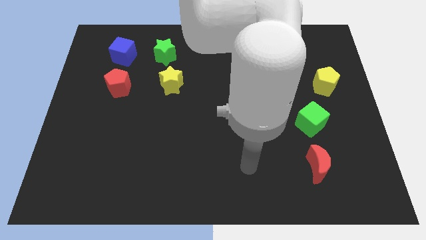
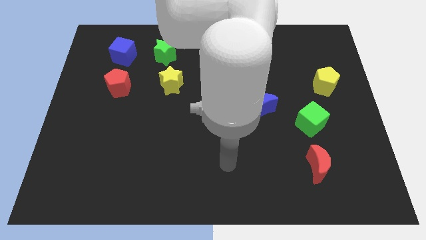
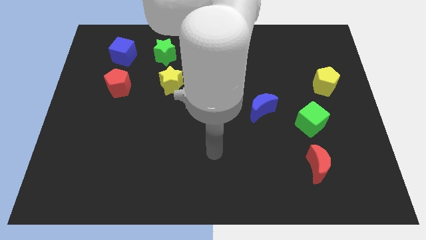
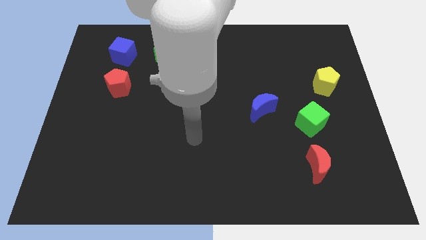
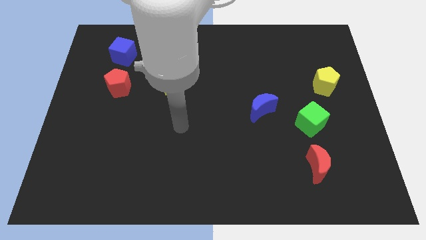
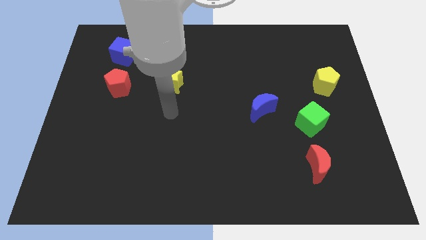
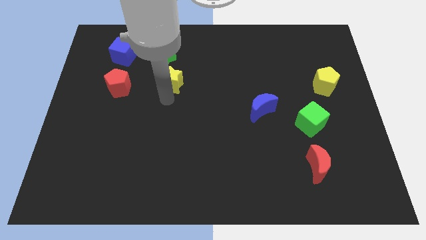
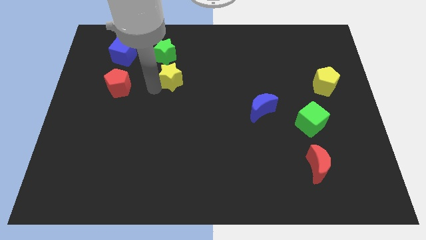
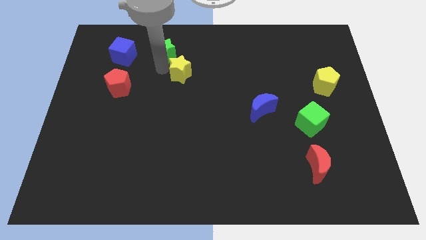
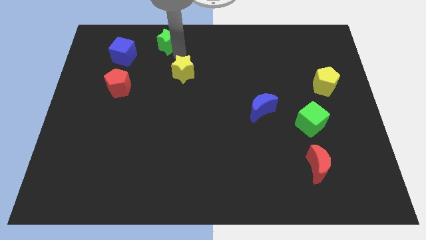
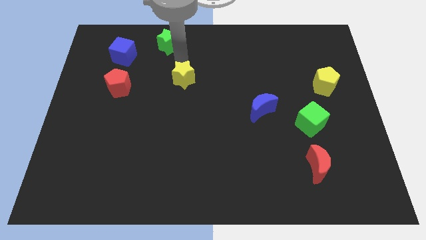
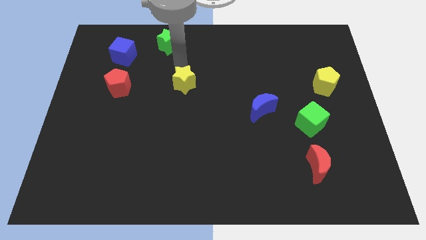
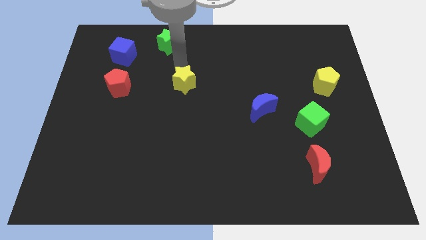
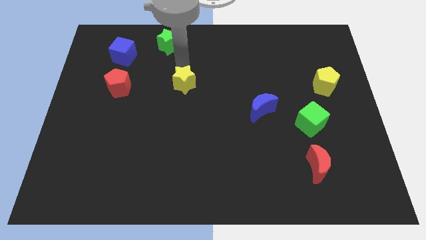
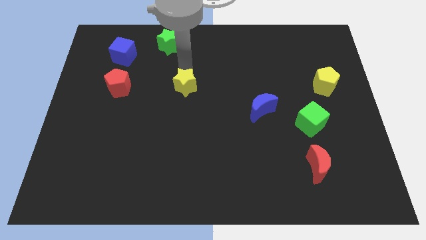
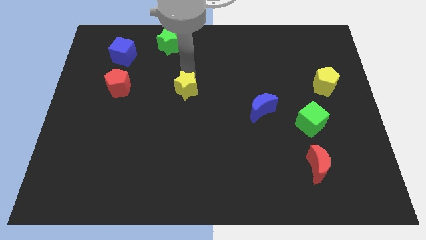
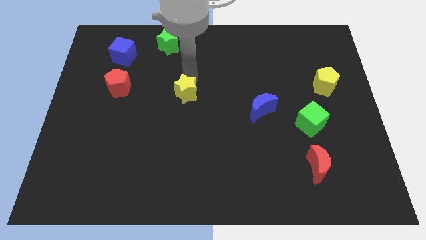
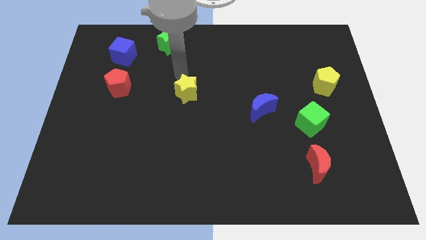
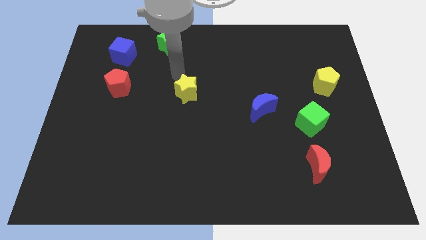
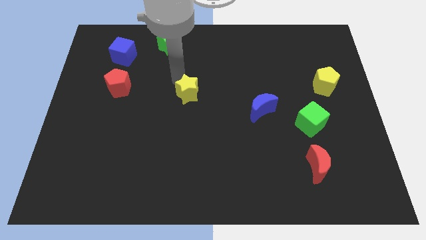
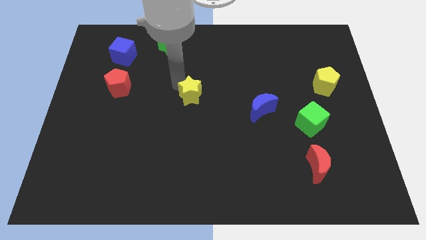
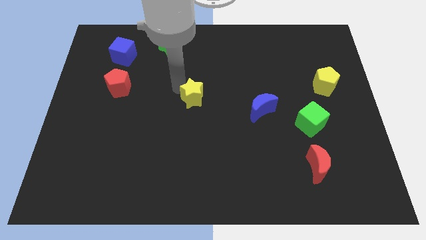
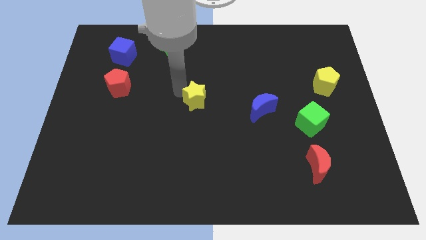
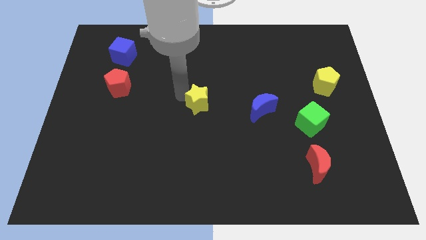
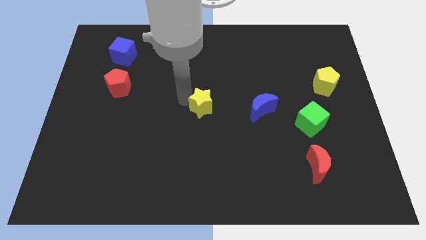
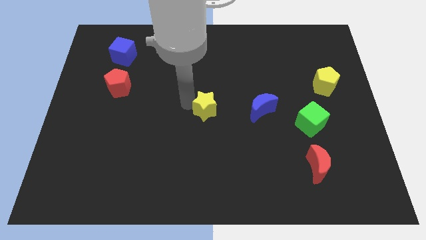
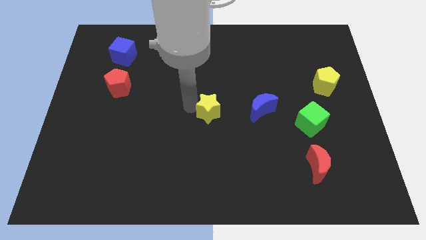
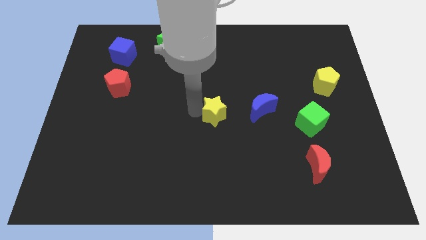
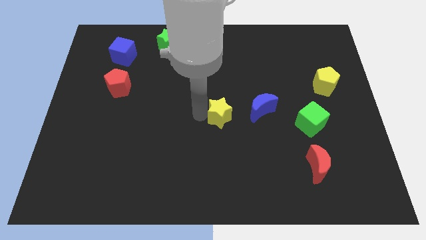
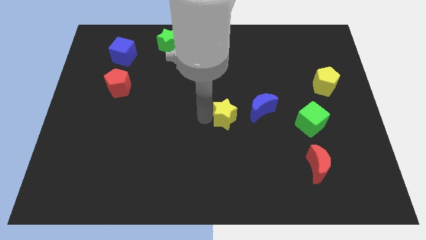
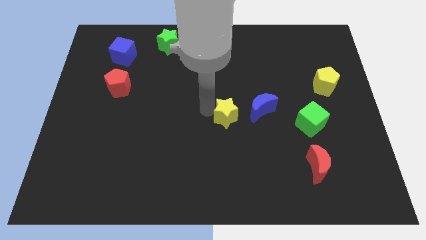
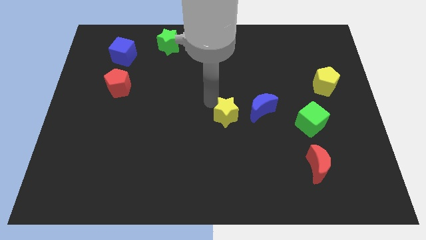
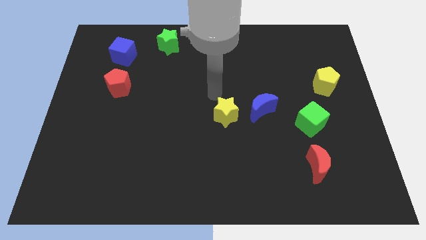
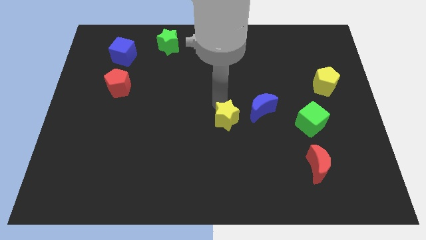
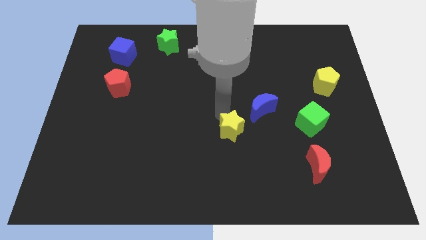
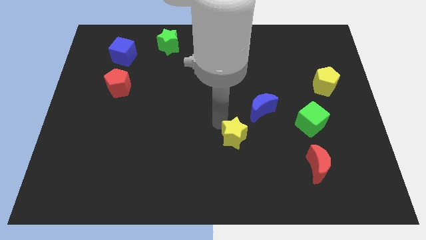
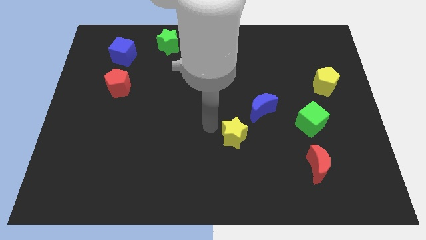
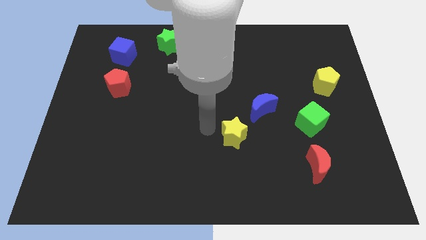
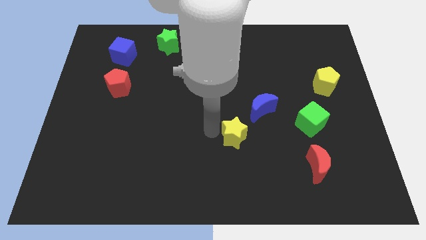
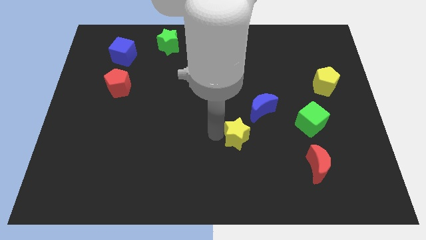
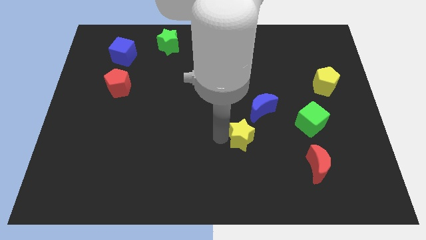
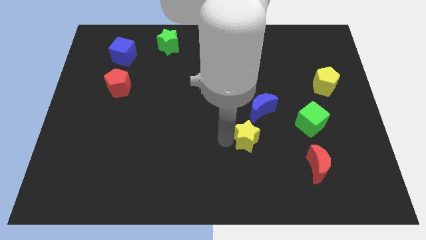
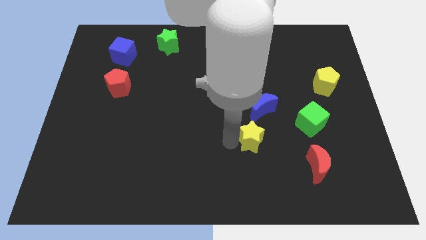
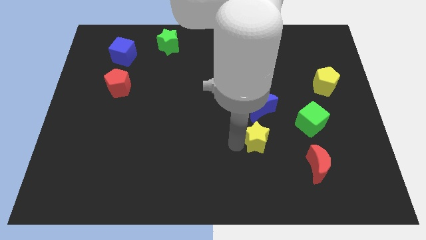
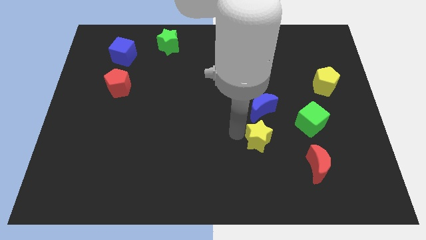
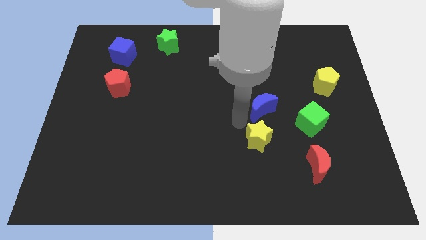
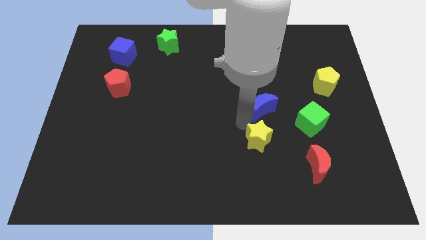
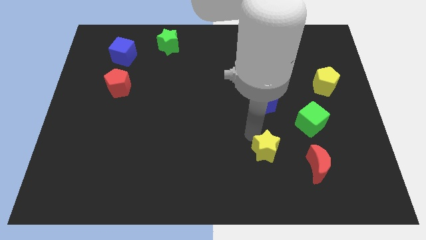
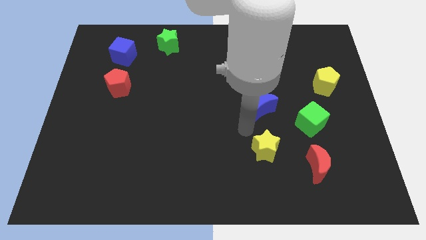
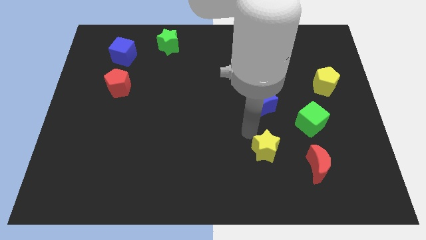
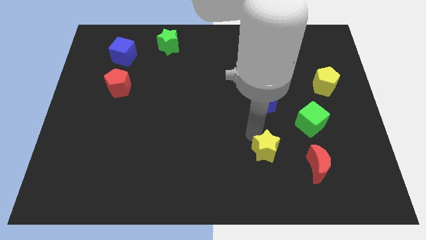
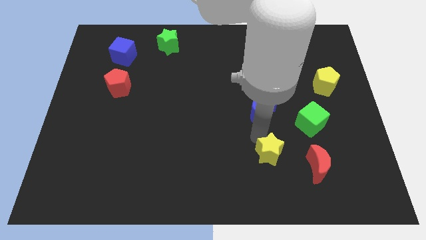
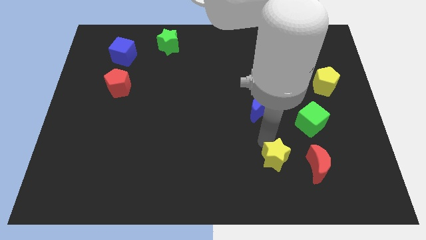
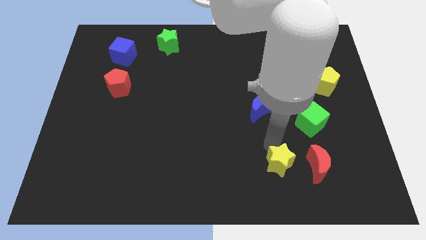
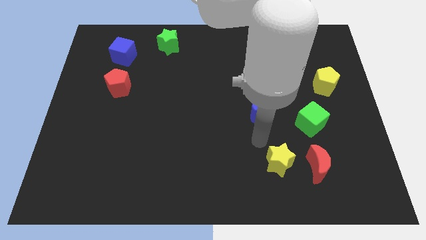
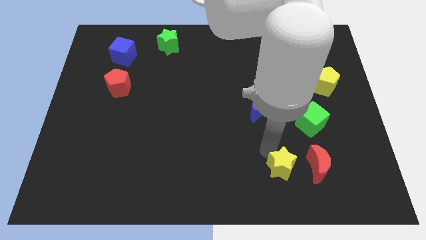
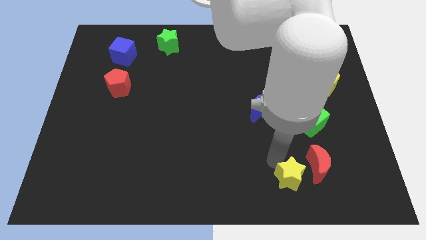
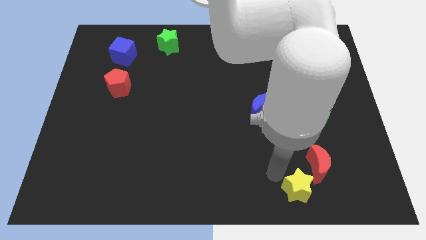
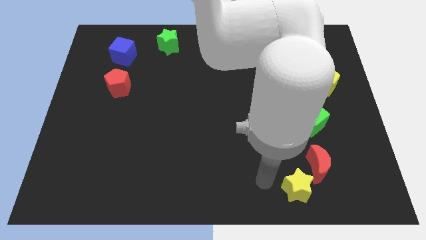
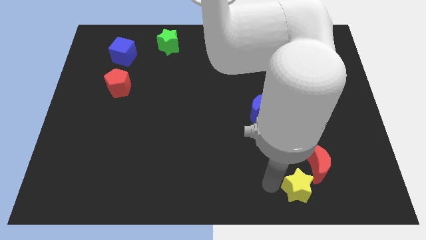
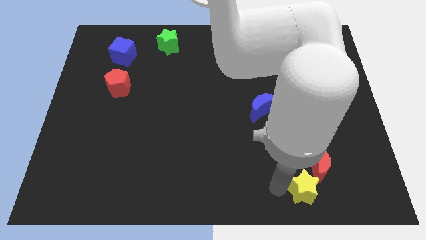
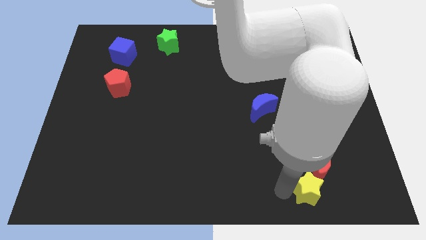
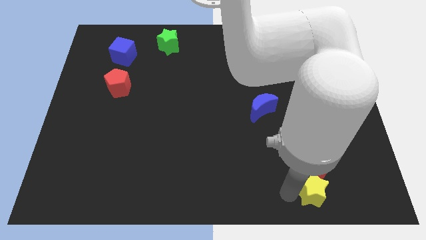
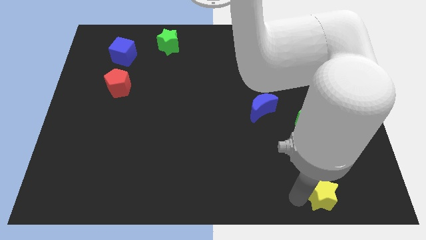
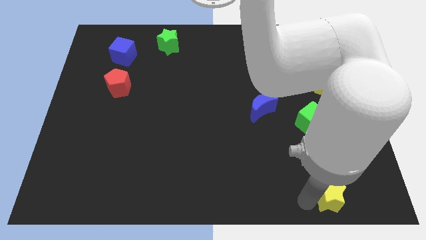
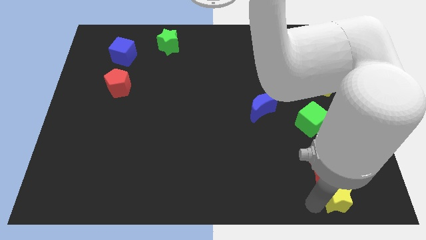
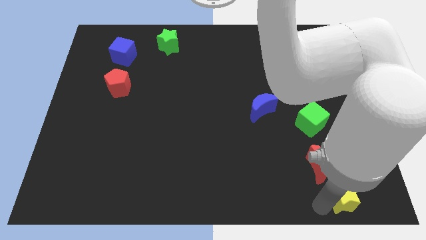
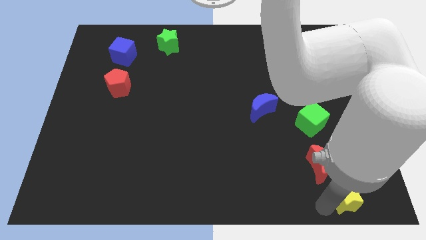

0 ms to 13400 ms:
push the yellow star to the bottom right
